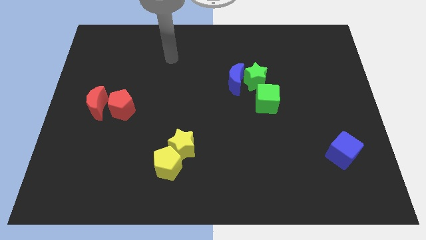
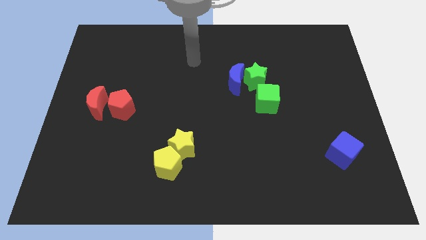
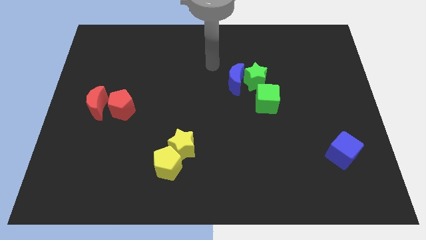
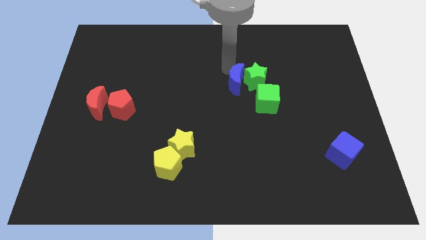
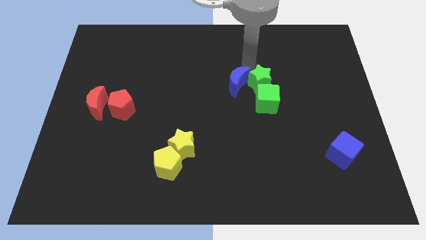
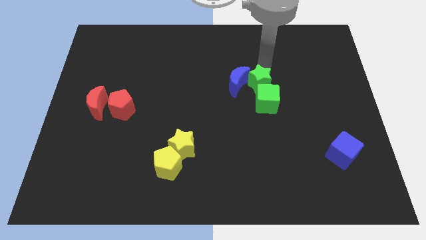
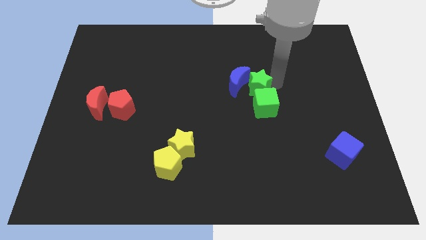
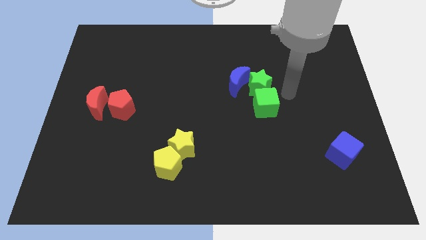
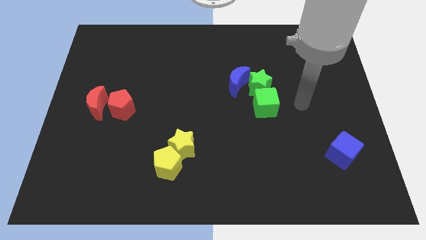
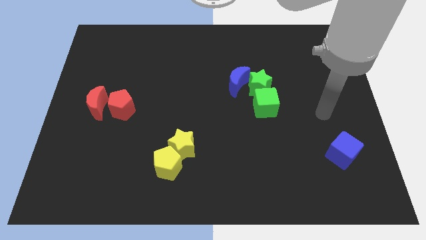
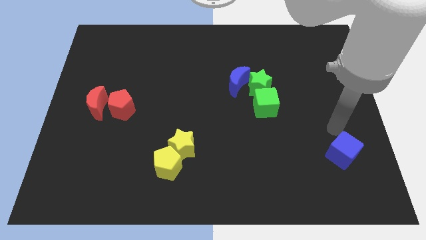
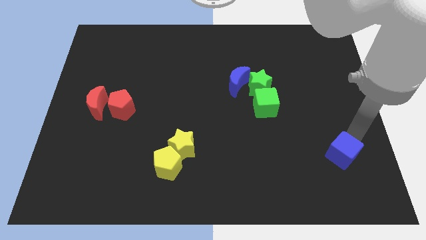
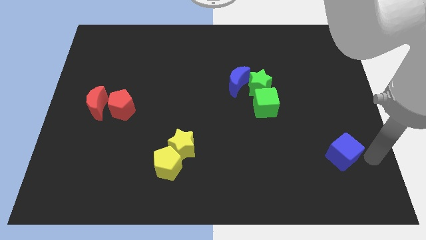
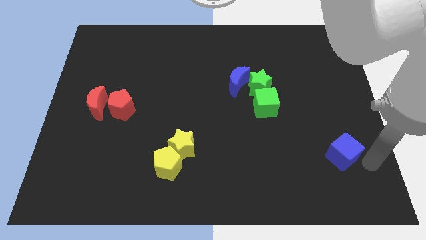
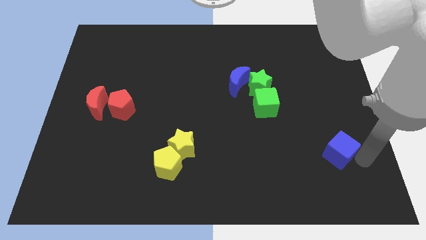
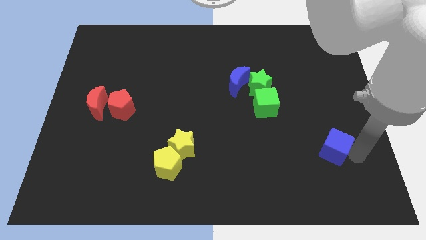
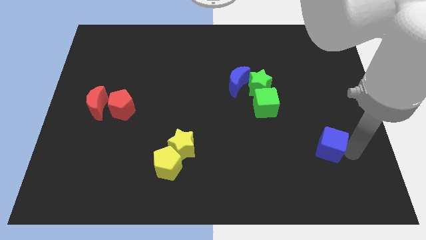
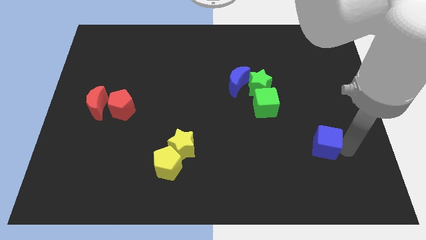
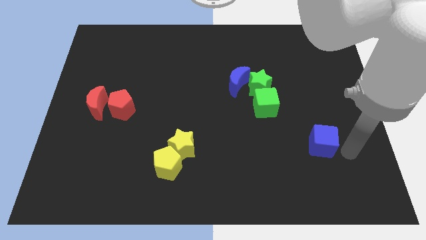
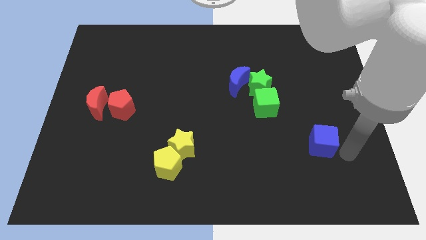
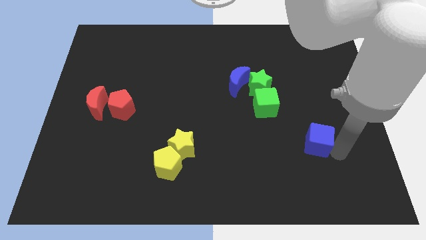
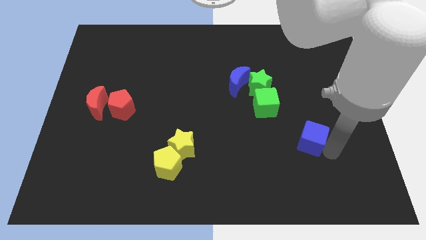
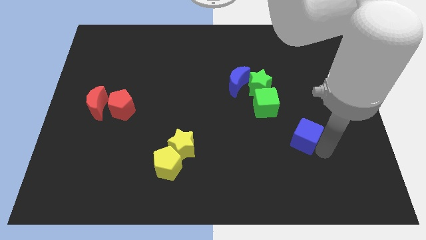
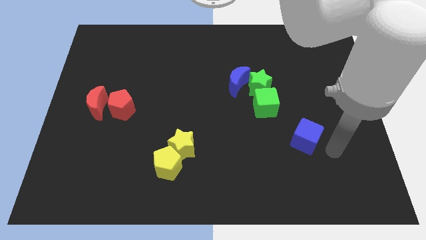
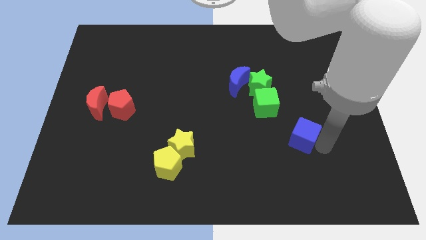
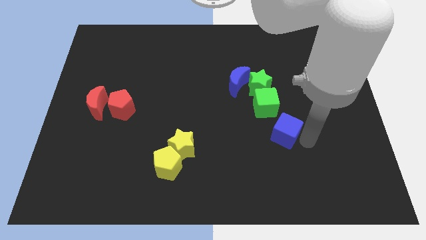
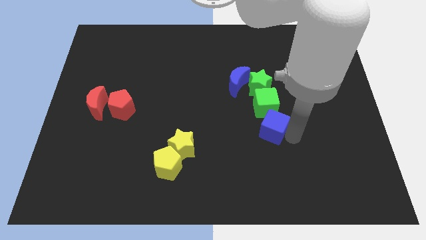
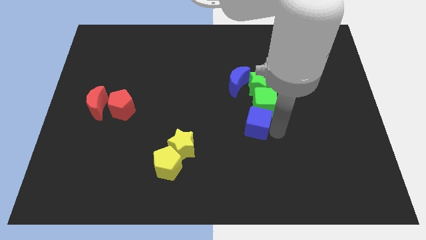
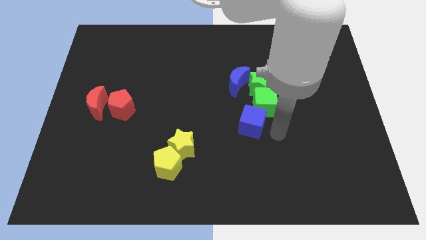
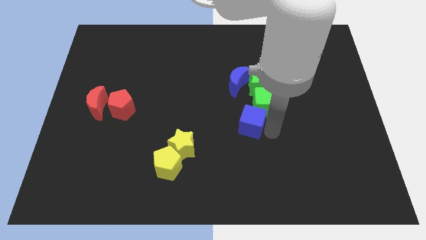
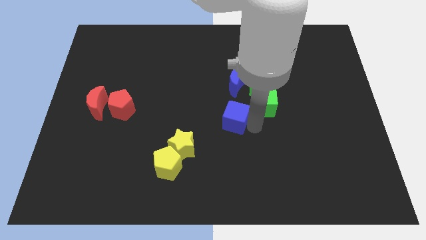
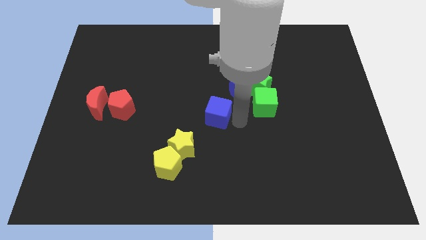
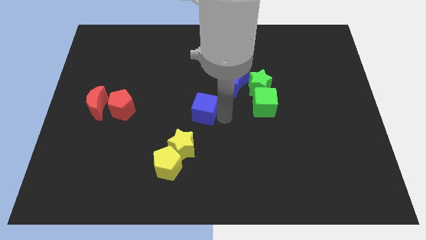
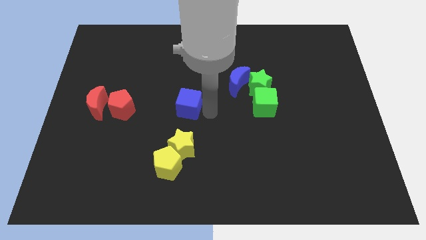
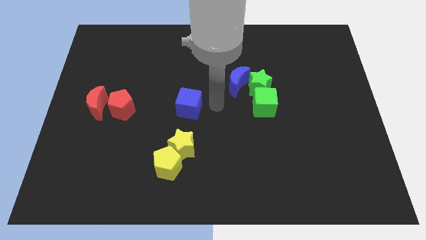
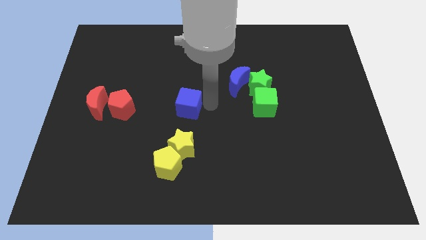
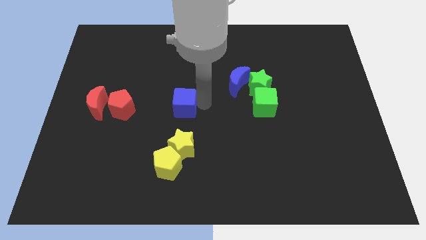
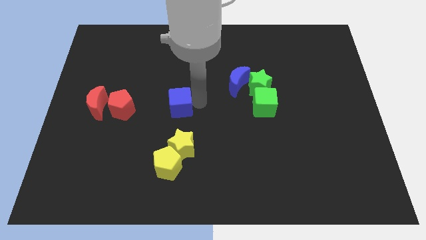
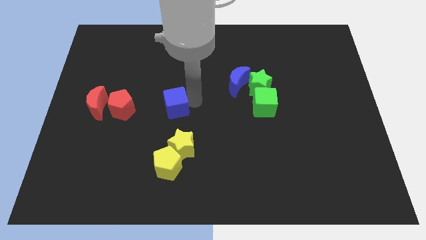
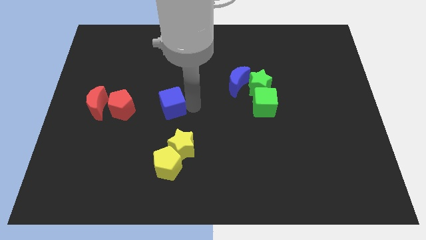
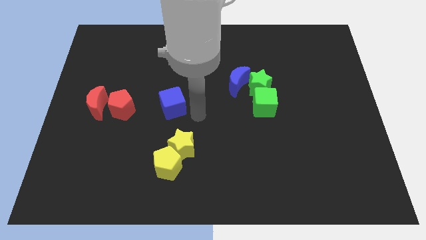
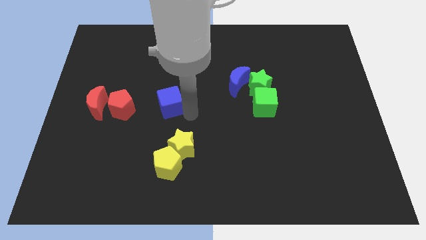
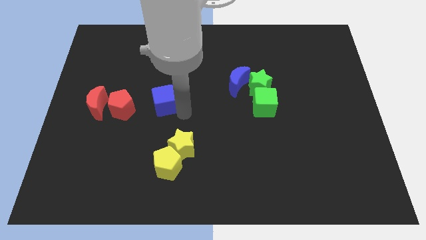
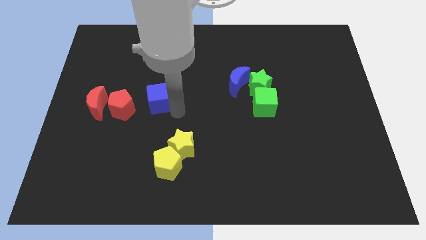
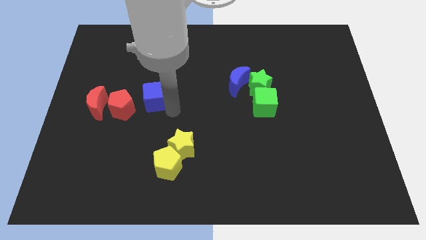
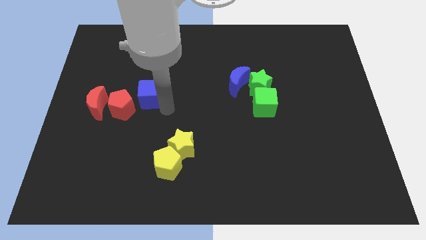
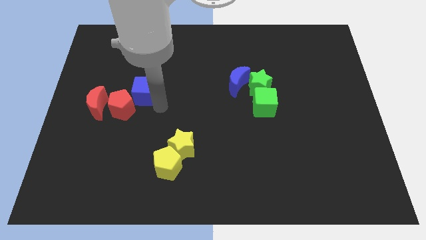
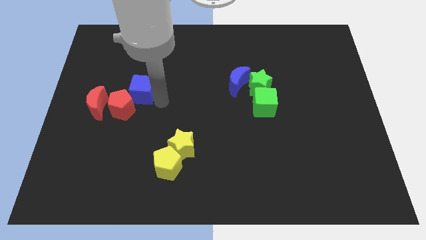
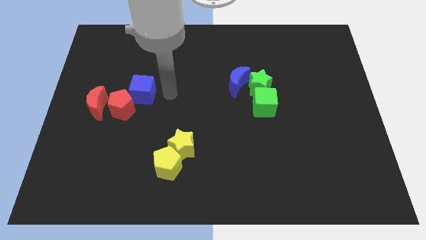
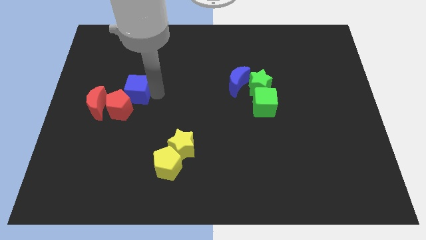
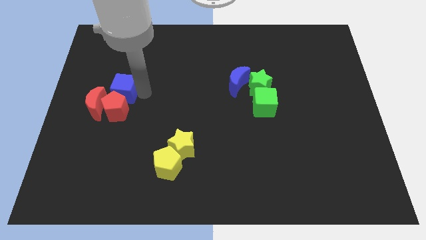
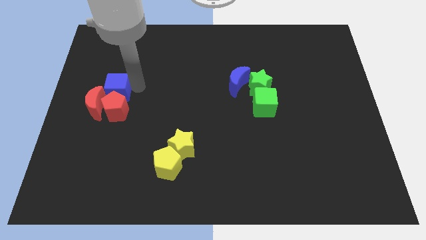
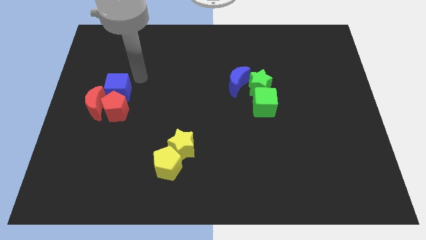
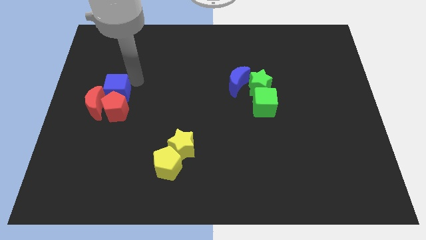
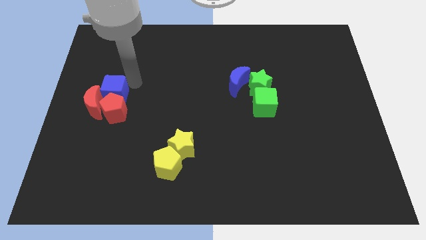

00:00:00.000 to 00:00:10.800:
slide the blue cube next to the red moon

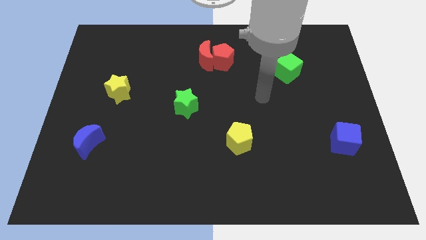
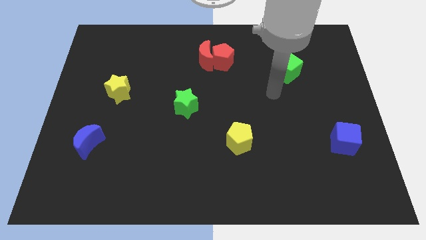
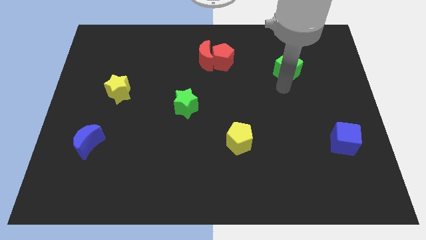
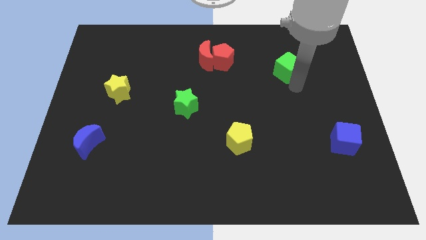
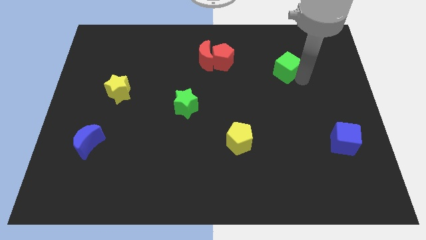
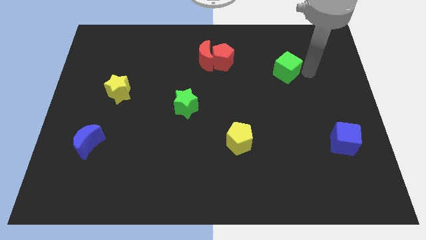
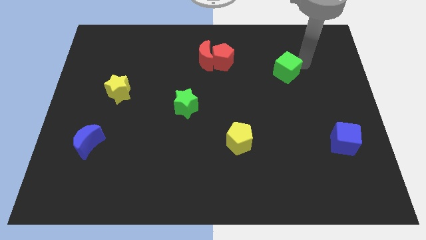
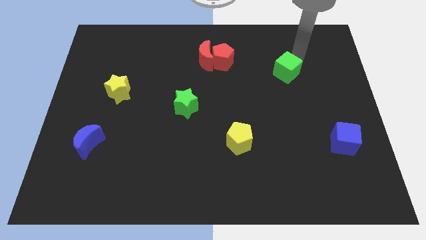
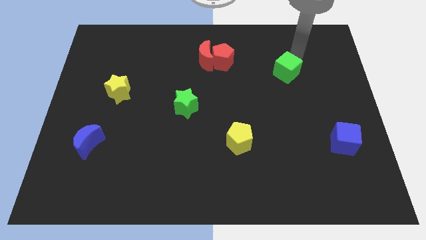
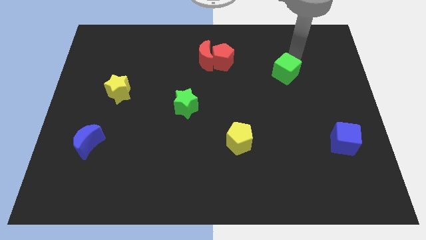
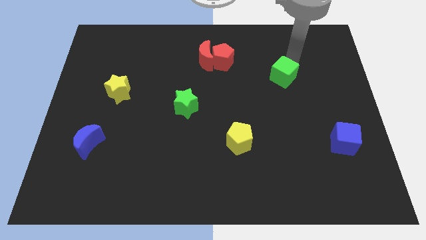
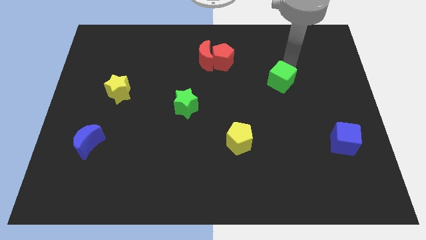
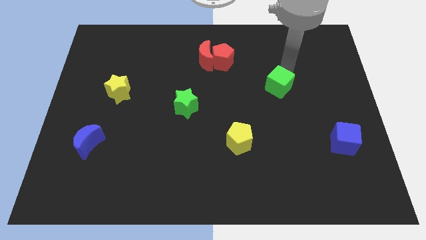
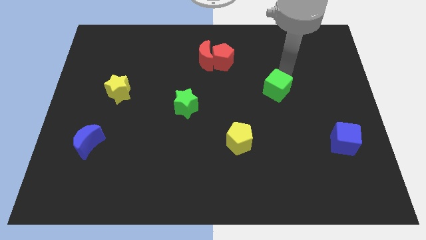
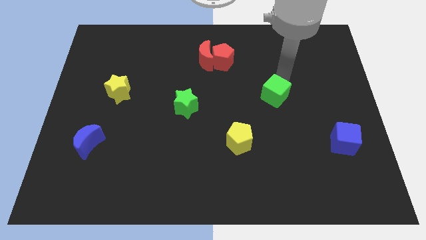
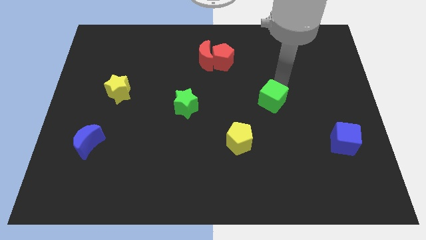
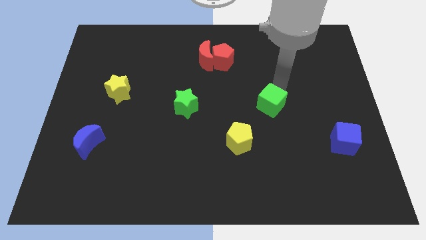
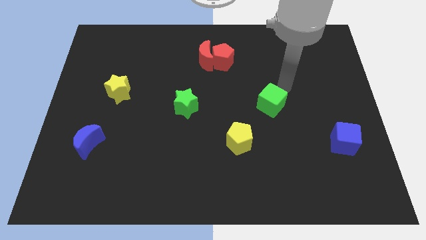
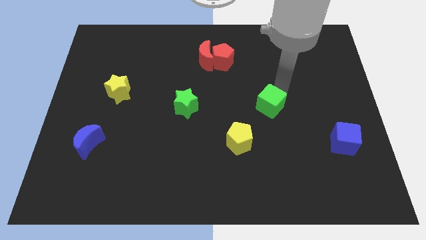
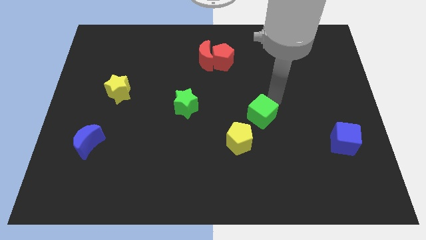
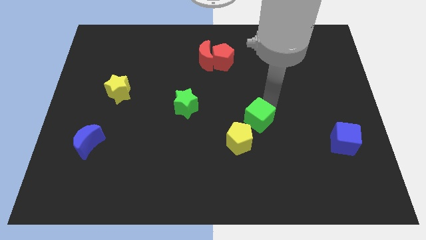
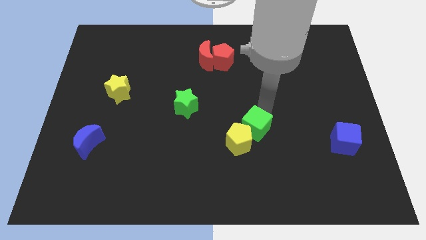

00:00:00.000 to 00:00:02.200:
push the green cube close to the yellow pentagon
